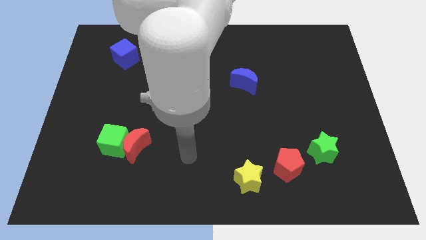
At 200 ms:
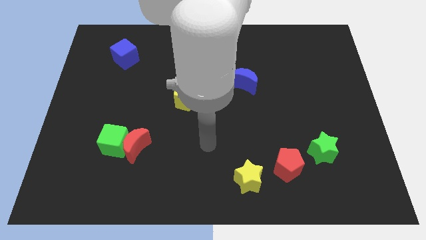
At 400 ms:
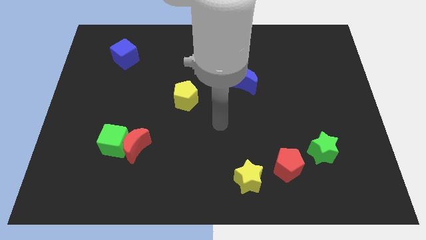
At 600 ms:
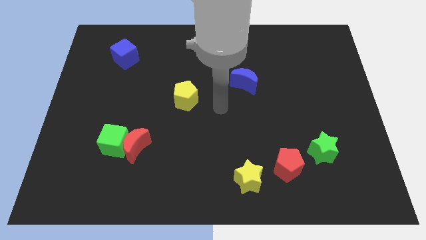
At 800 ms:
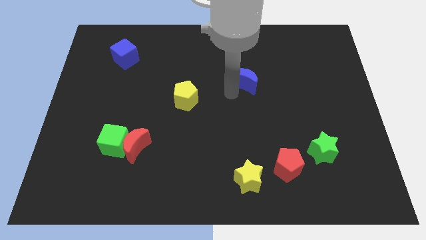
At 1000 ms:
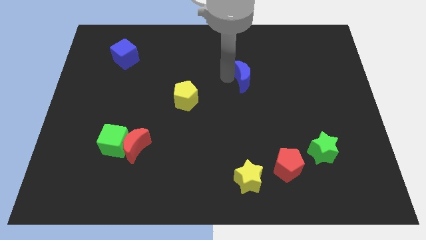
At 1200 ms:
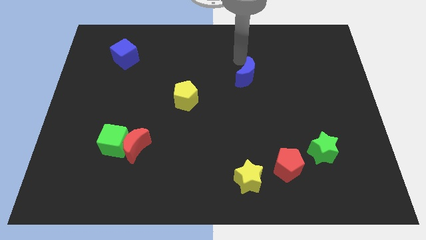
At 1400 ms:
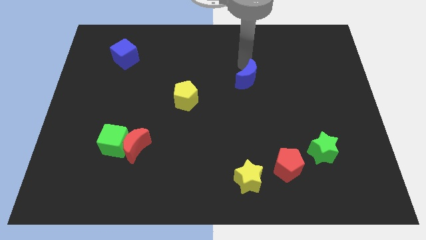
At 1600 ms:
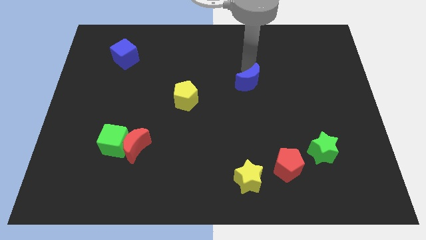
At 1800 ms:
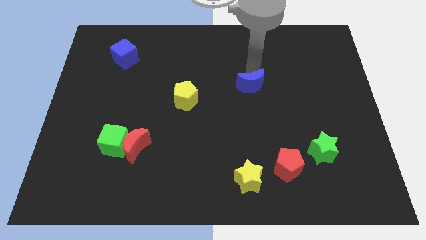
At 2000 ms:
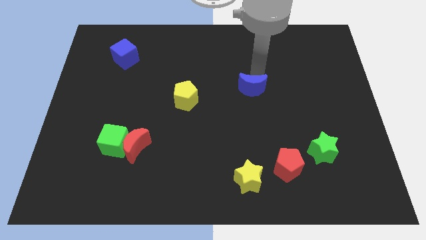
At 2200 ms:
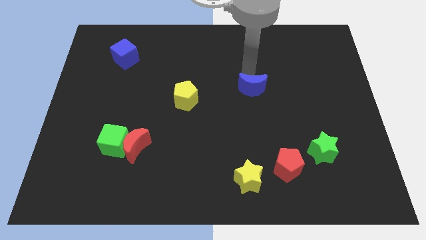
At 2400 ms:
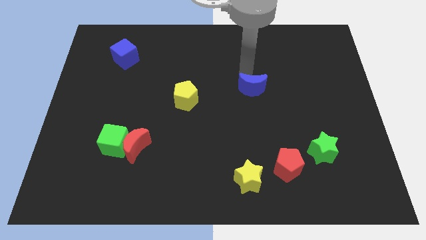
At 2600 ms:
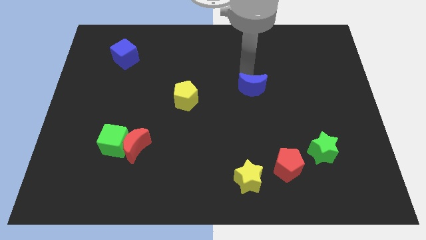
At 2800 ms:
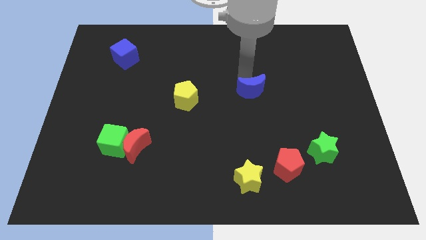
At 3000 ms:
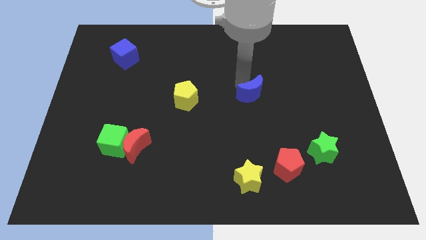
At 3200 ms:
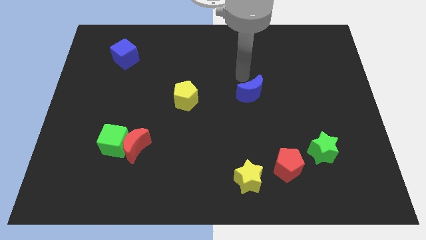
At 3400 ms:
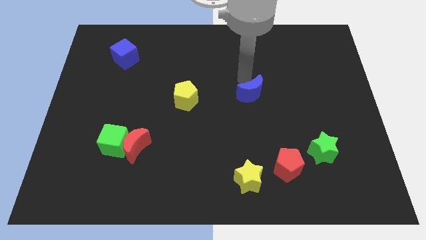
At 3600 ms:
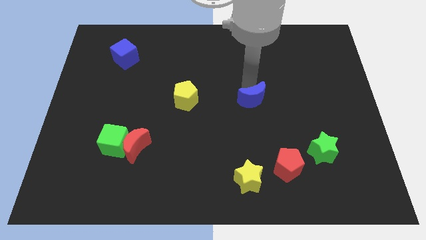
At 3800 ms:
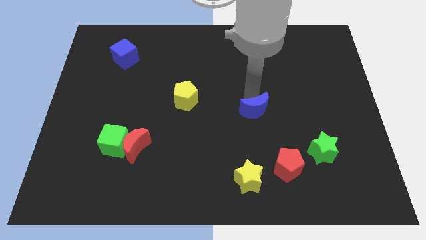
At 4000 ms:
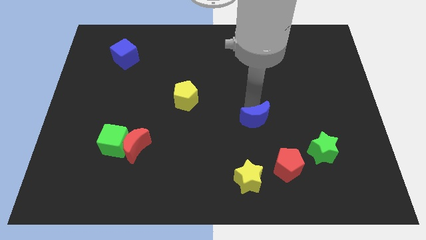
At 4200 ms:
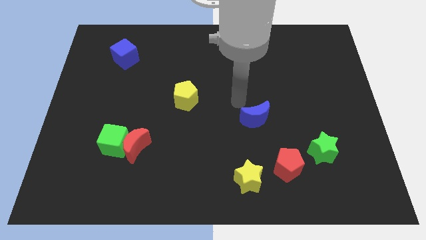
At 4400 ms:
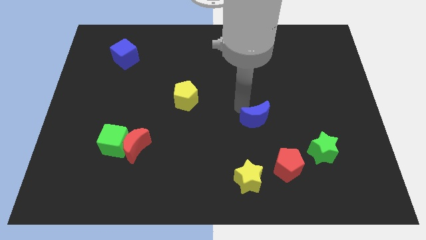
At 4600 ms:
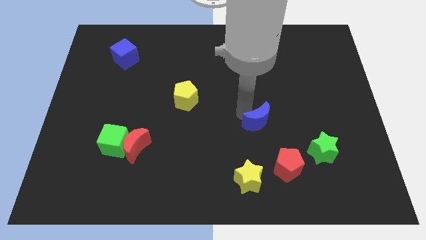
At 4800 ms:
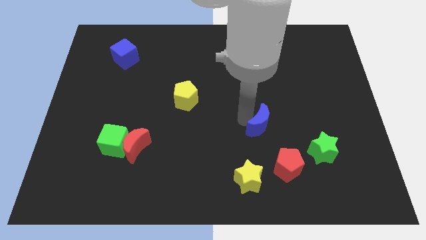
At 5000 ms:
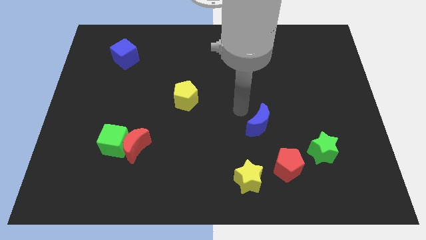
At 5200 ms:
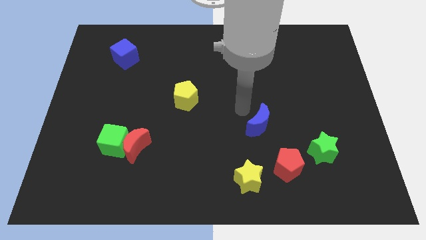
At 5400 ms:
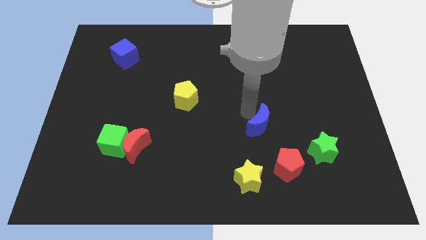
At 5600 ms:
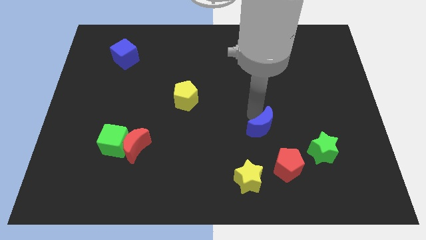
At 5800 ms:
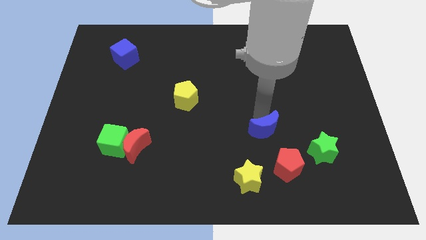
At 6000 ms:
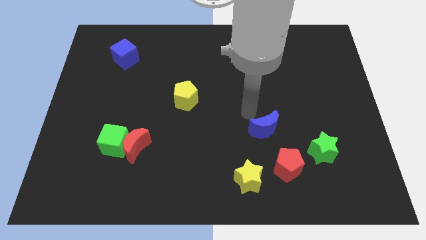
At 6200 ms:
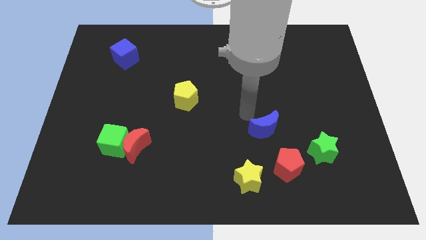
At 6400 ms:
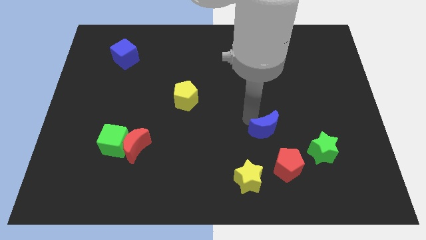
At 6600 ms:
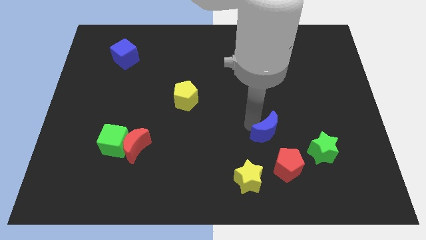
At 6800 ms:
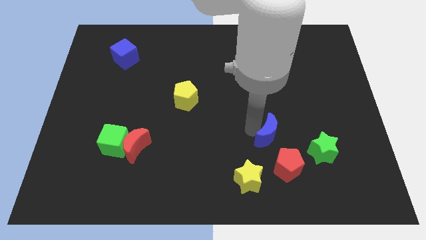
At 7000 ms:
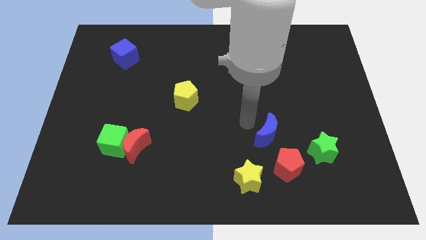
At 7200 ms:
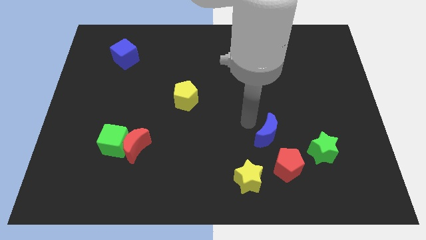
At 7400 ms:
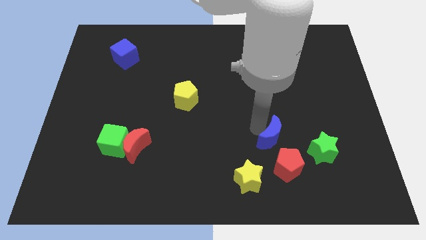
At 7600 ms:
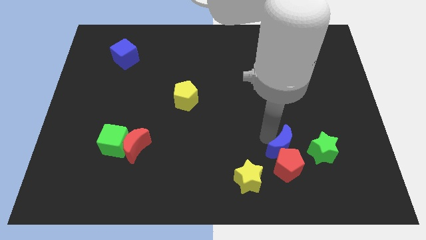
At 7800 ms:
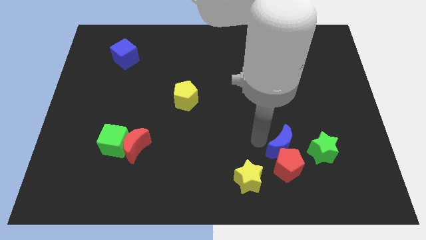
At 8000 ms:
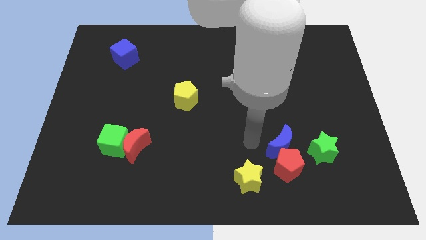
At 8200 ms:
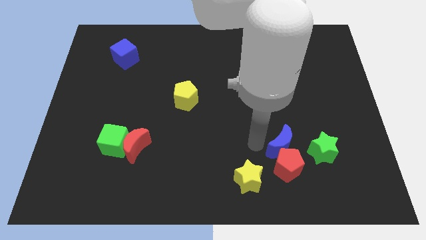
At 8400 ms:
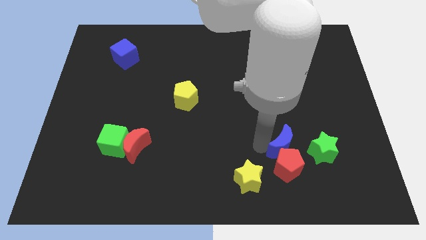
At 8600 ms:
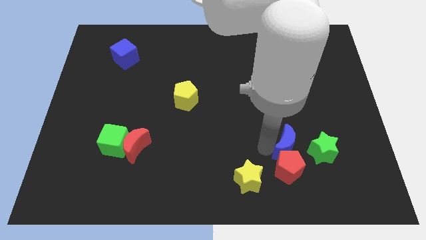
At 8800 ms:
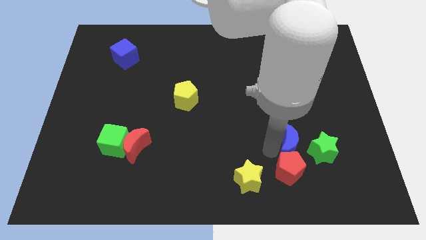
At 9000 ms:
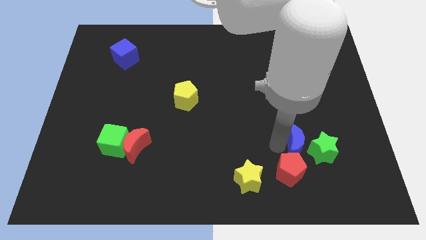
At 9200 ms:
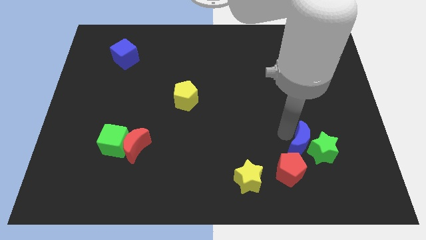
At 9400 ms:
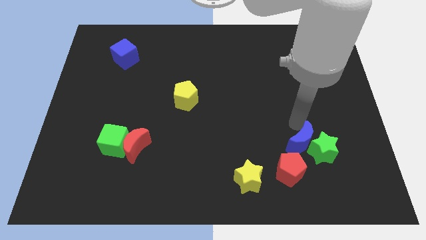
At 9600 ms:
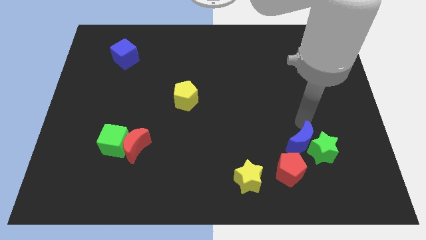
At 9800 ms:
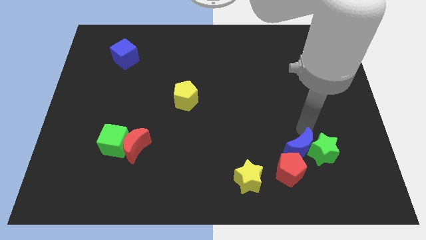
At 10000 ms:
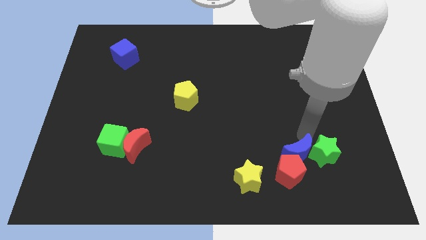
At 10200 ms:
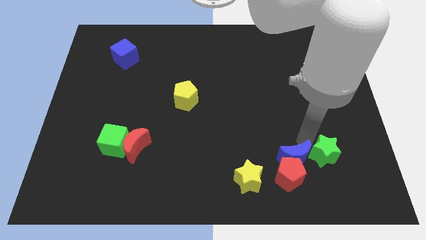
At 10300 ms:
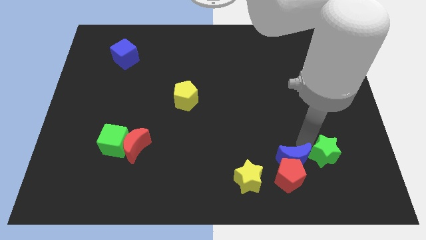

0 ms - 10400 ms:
move the blue moon right of the yellow star

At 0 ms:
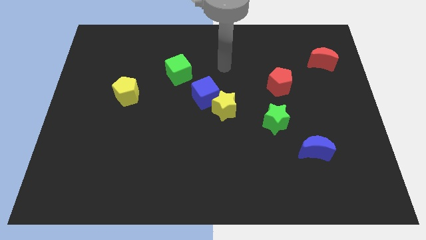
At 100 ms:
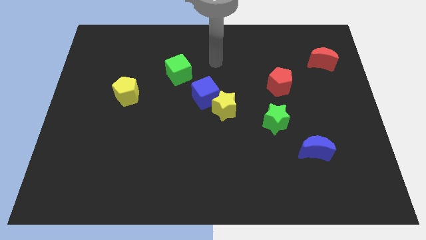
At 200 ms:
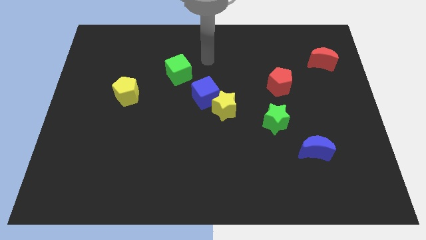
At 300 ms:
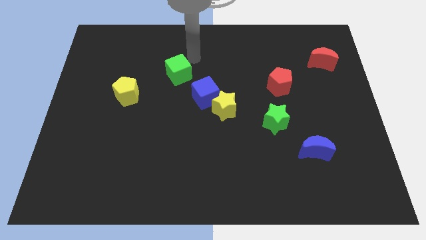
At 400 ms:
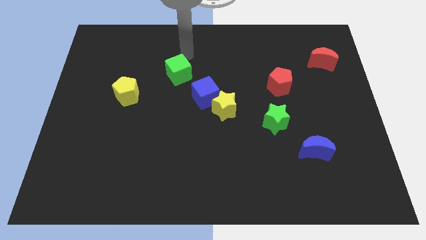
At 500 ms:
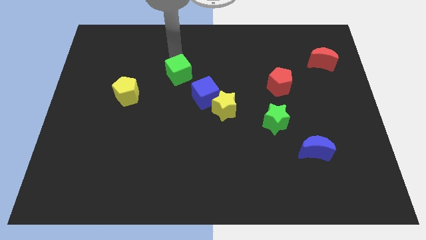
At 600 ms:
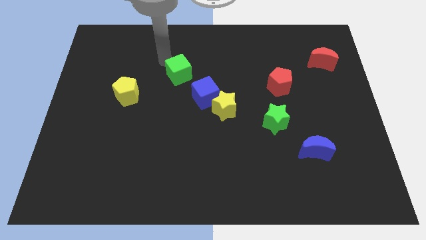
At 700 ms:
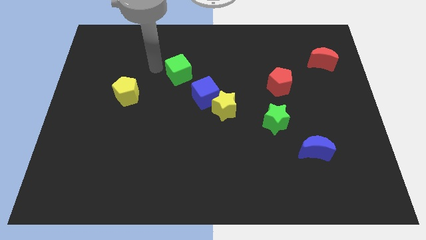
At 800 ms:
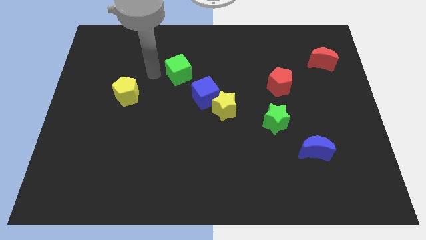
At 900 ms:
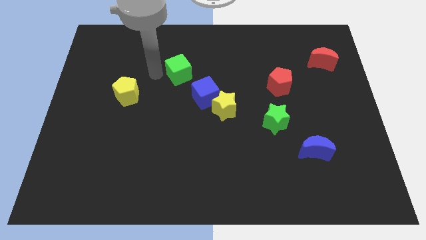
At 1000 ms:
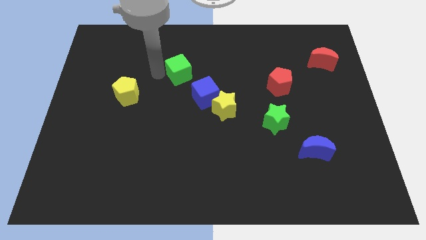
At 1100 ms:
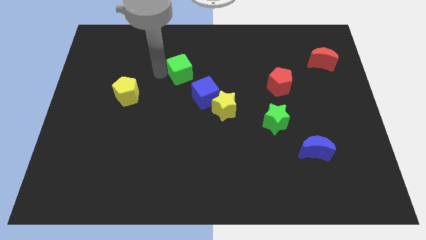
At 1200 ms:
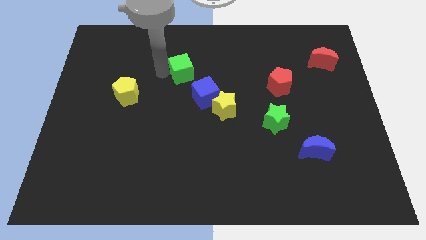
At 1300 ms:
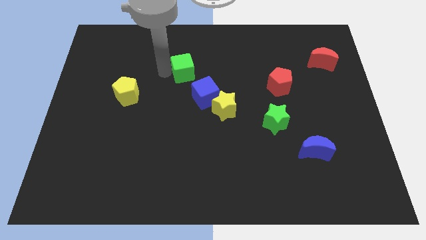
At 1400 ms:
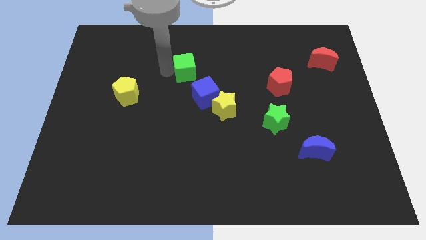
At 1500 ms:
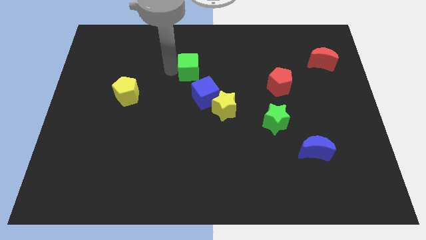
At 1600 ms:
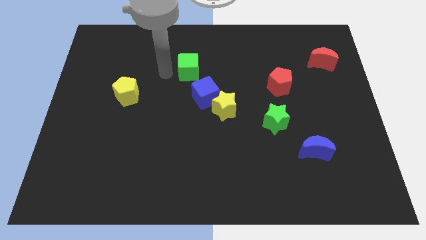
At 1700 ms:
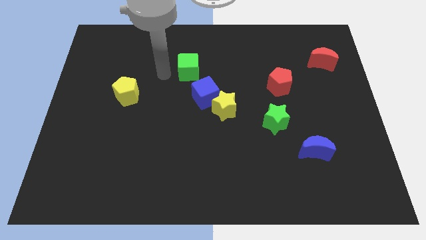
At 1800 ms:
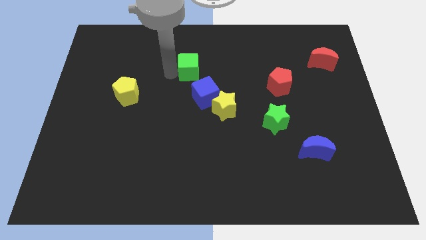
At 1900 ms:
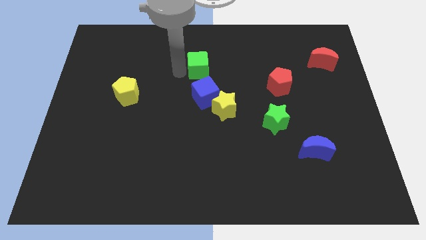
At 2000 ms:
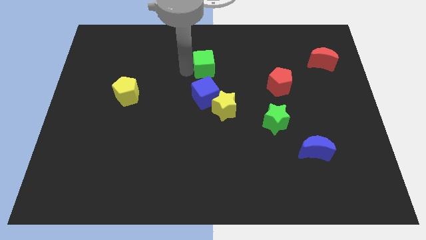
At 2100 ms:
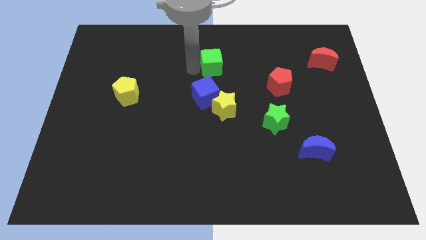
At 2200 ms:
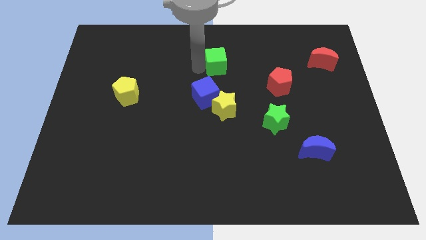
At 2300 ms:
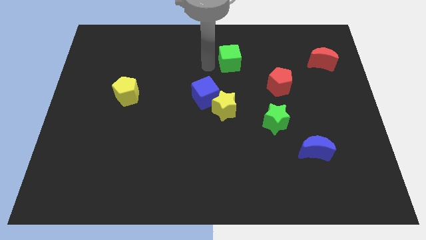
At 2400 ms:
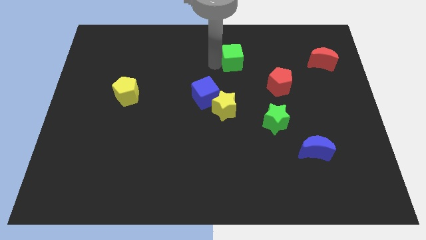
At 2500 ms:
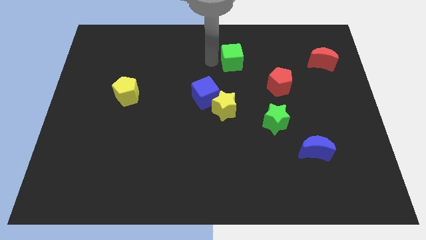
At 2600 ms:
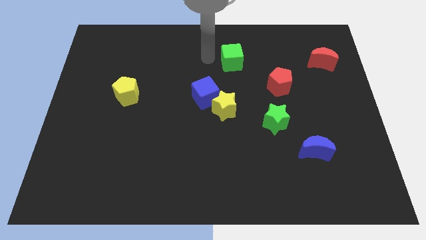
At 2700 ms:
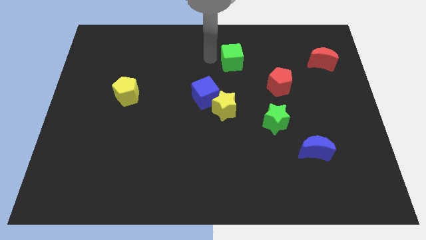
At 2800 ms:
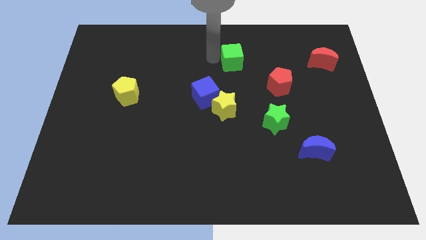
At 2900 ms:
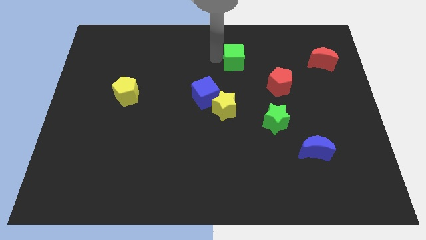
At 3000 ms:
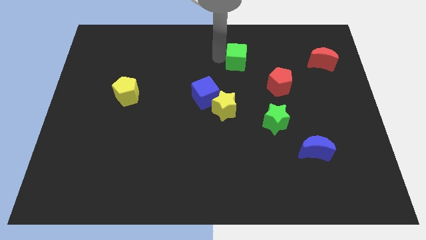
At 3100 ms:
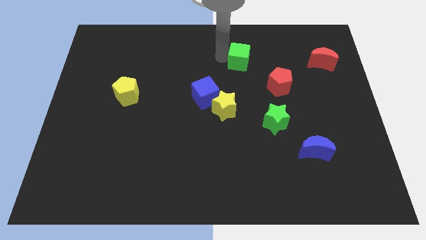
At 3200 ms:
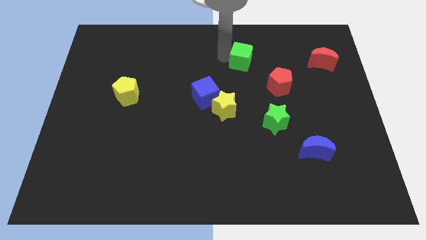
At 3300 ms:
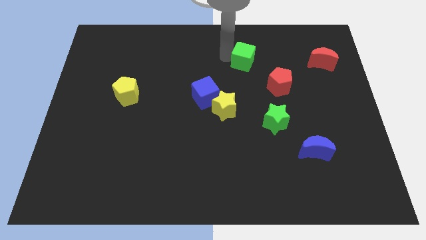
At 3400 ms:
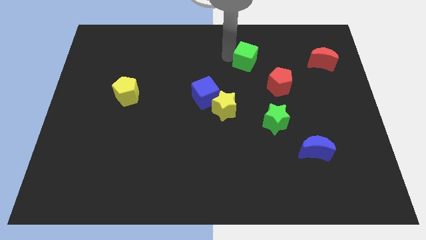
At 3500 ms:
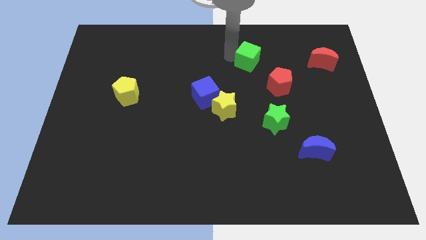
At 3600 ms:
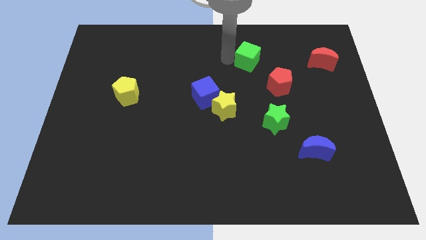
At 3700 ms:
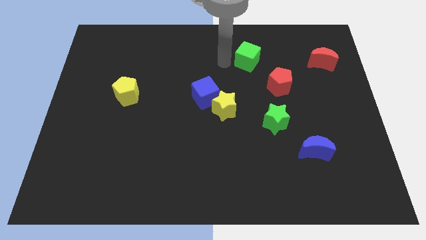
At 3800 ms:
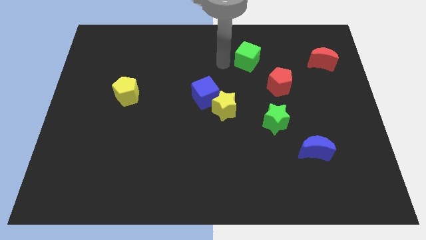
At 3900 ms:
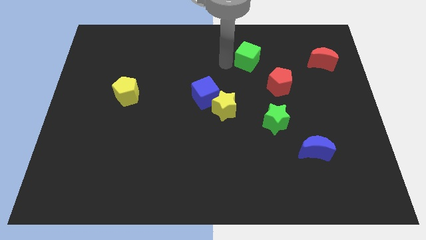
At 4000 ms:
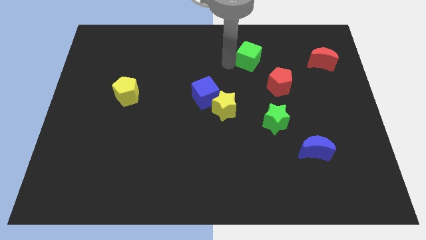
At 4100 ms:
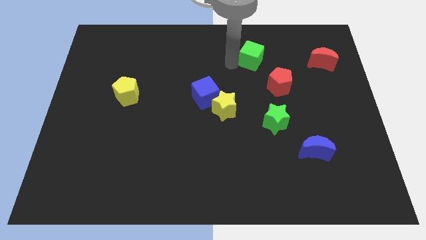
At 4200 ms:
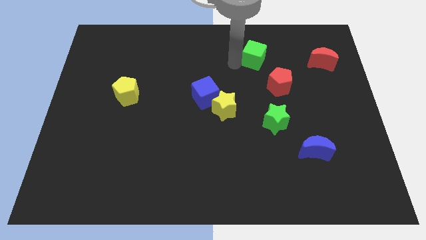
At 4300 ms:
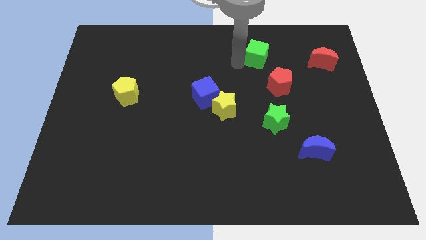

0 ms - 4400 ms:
slide the green cube above the red pentagon
